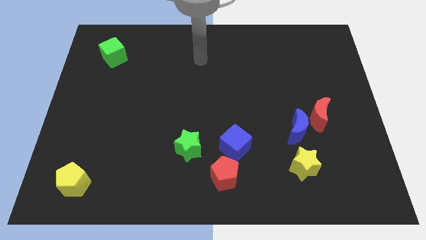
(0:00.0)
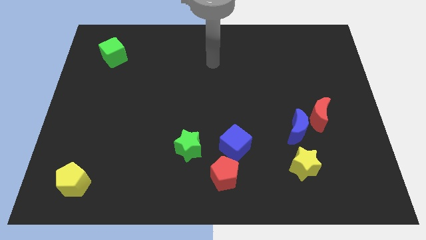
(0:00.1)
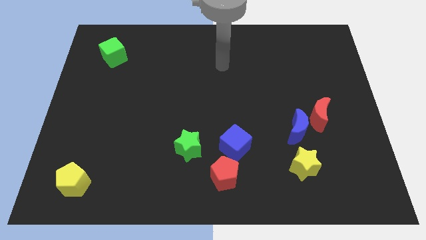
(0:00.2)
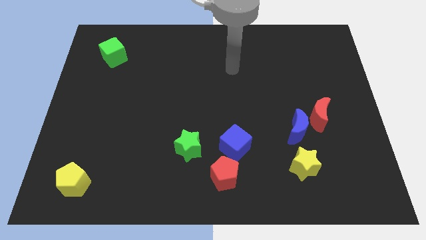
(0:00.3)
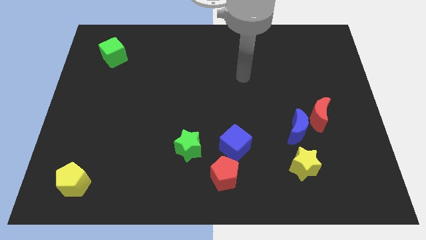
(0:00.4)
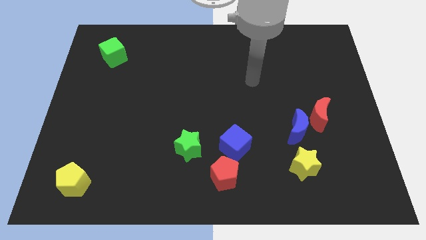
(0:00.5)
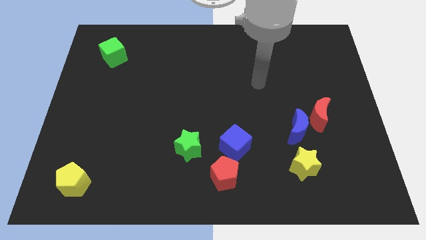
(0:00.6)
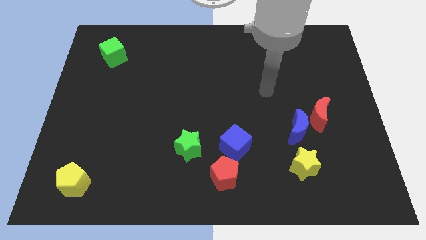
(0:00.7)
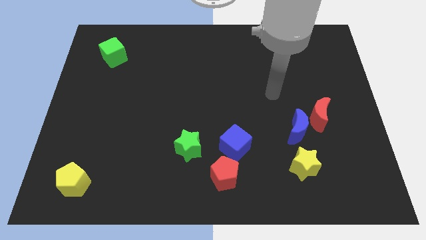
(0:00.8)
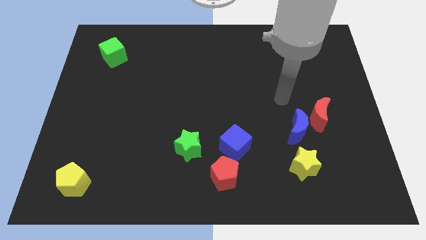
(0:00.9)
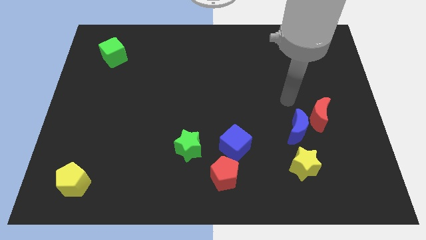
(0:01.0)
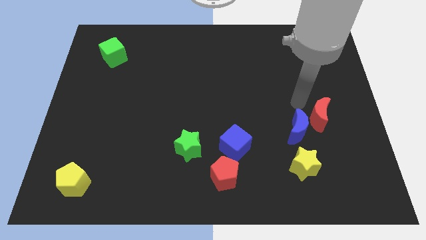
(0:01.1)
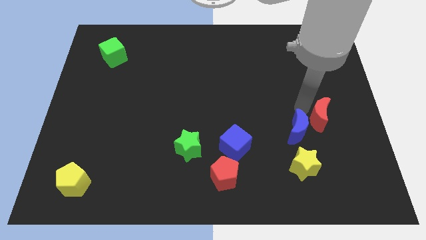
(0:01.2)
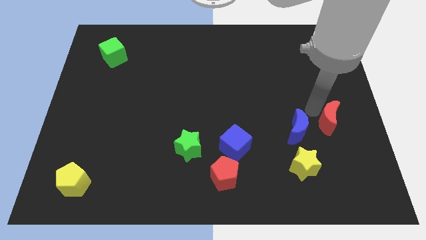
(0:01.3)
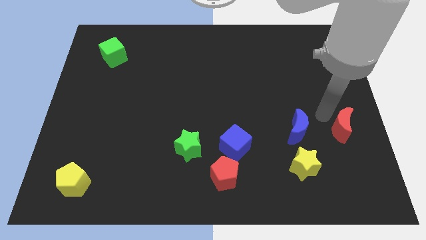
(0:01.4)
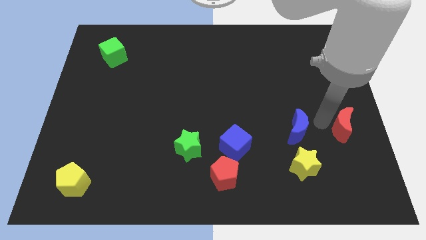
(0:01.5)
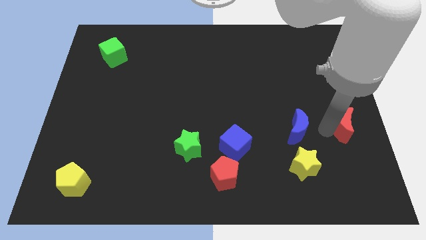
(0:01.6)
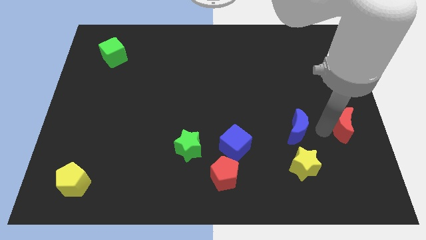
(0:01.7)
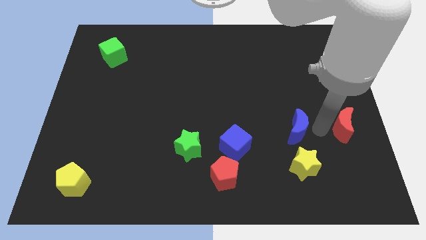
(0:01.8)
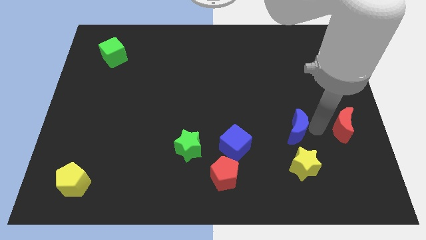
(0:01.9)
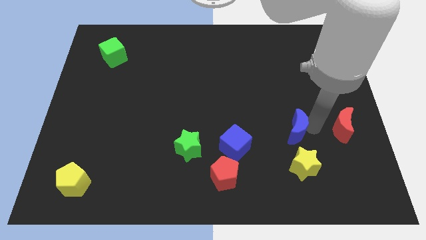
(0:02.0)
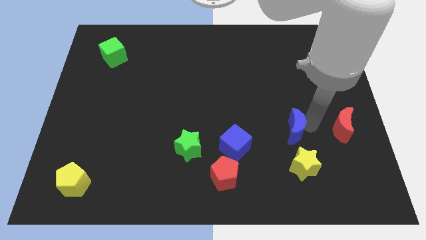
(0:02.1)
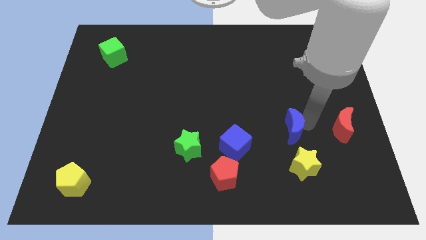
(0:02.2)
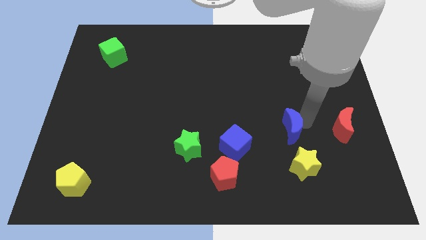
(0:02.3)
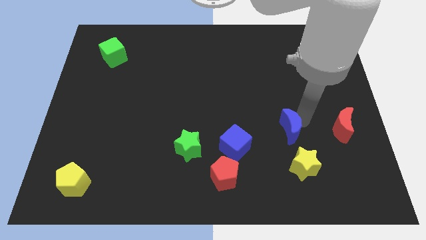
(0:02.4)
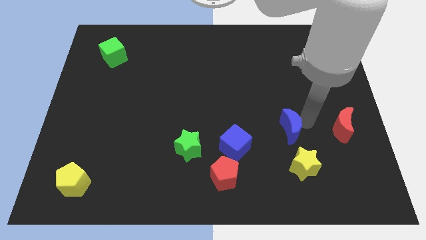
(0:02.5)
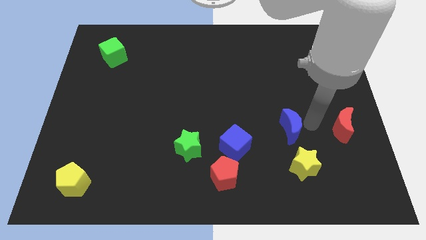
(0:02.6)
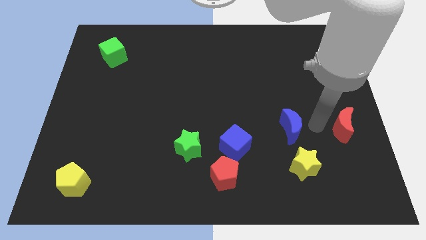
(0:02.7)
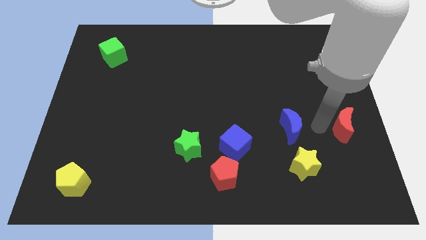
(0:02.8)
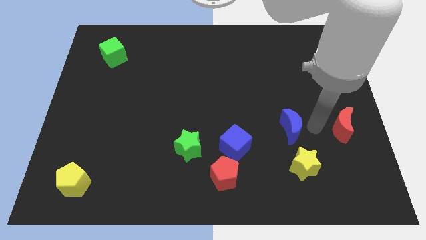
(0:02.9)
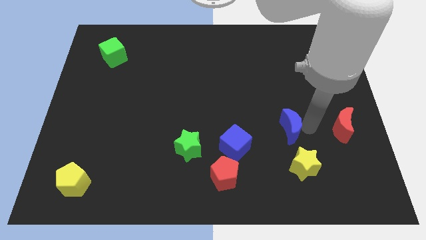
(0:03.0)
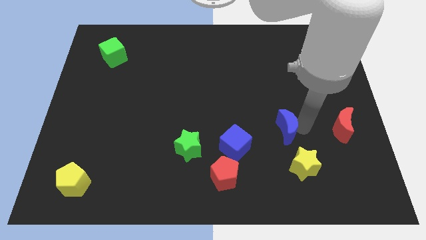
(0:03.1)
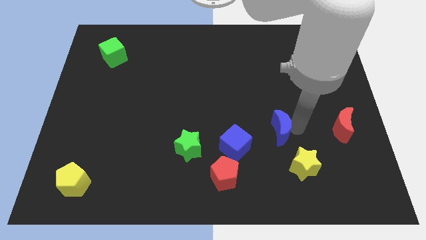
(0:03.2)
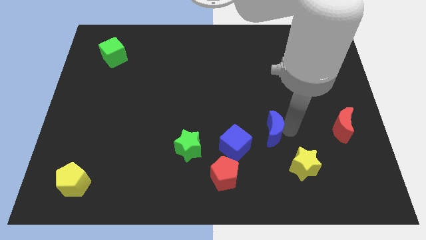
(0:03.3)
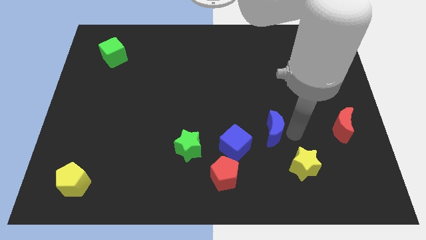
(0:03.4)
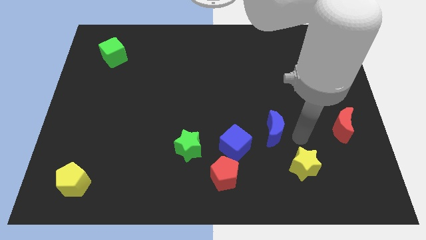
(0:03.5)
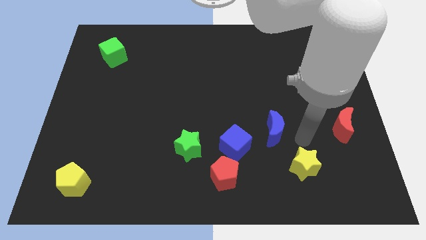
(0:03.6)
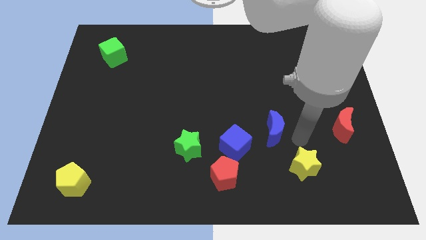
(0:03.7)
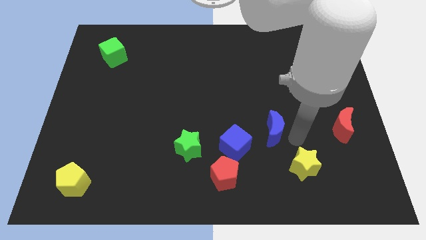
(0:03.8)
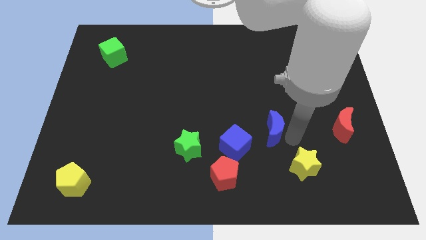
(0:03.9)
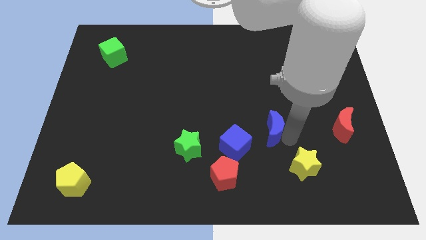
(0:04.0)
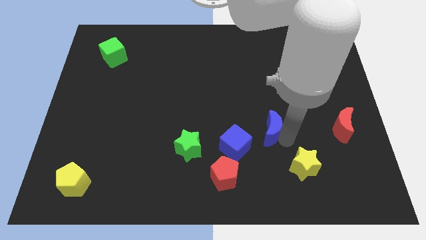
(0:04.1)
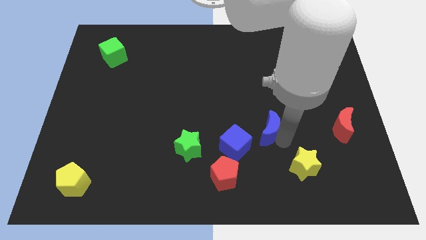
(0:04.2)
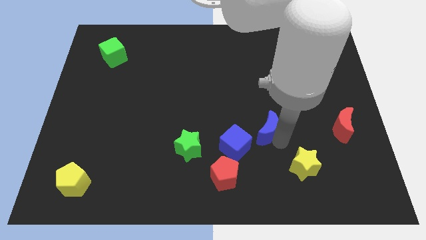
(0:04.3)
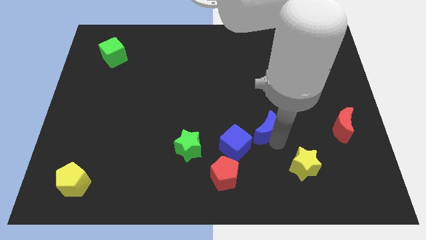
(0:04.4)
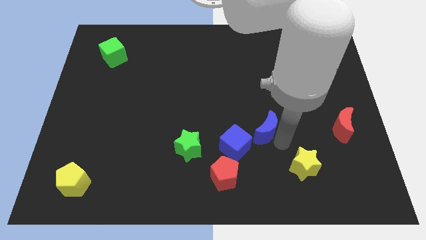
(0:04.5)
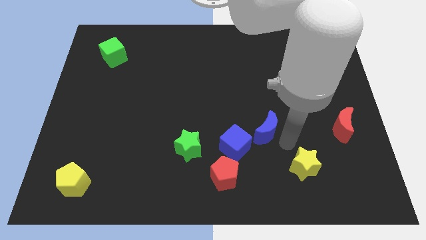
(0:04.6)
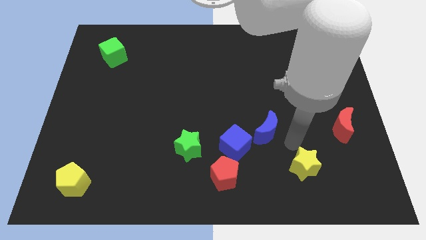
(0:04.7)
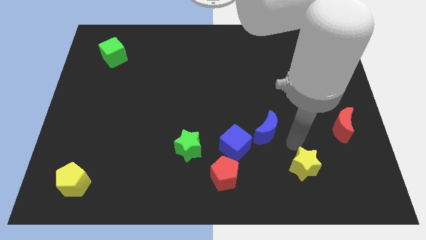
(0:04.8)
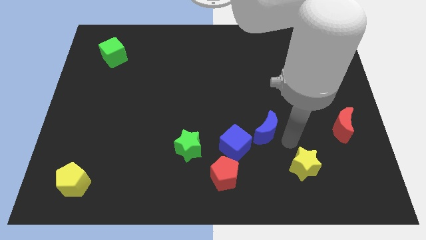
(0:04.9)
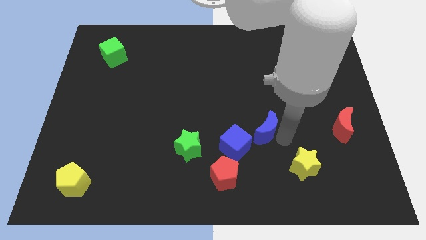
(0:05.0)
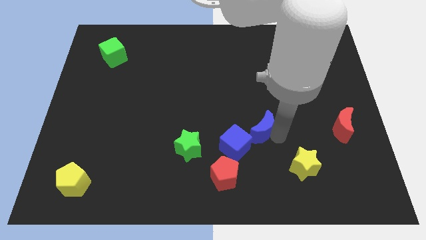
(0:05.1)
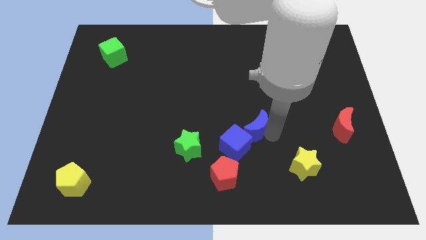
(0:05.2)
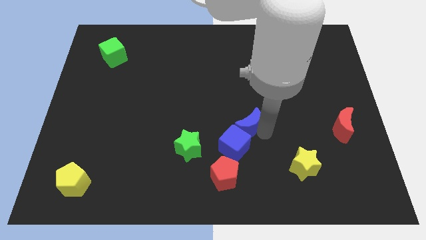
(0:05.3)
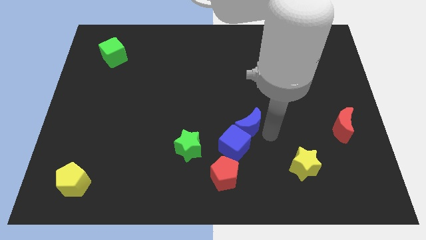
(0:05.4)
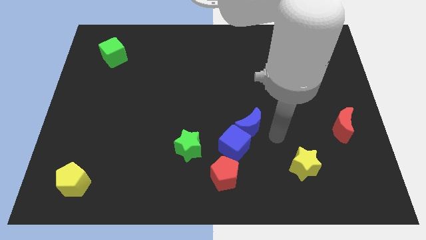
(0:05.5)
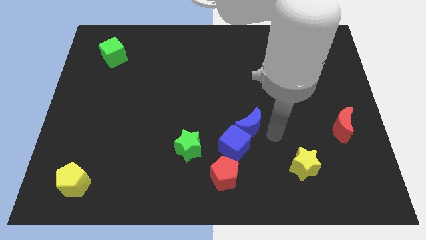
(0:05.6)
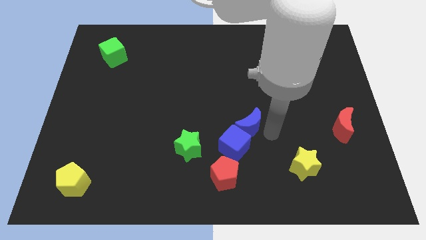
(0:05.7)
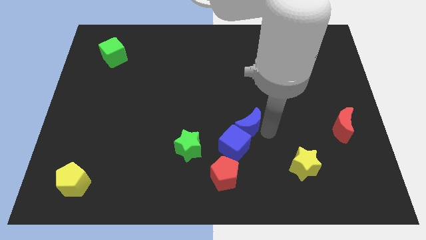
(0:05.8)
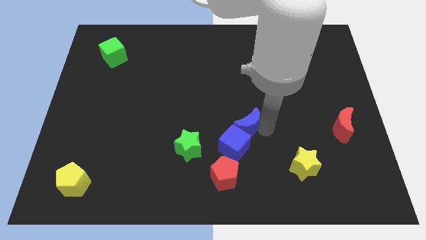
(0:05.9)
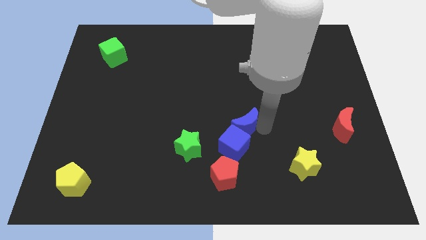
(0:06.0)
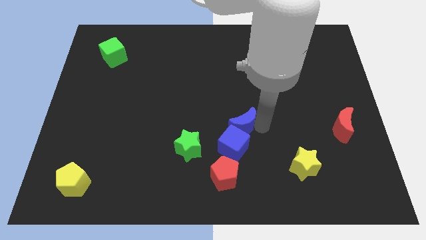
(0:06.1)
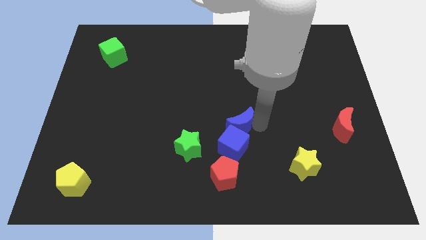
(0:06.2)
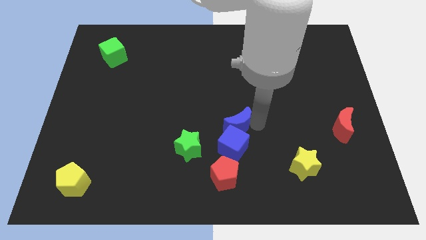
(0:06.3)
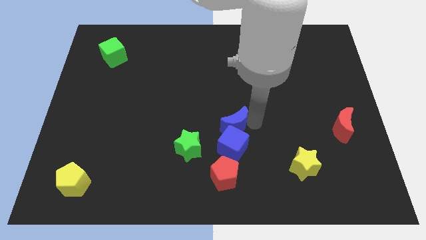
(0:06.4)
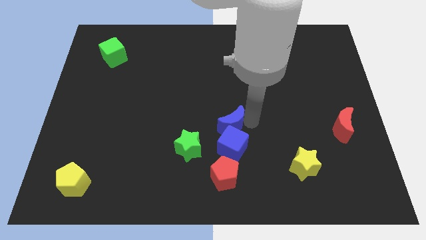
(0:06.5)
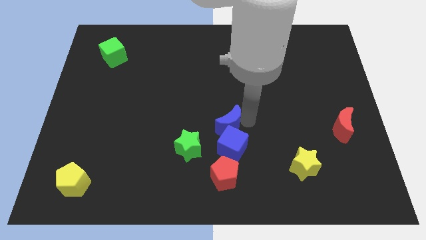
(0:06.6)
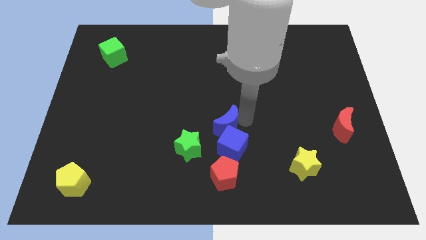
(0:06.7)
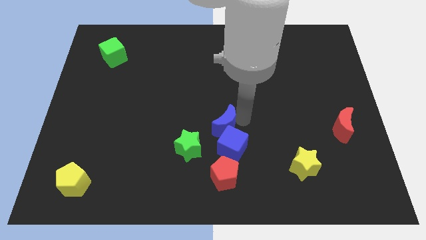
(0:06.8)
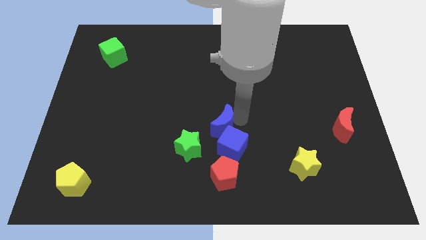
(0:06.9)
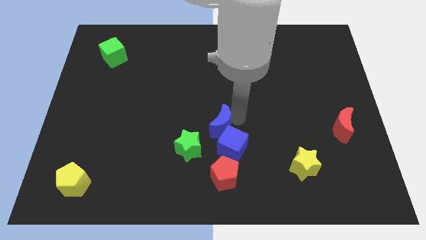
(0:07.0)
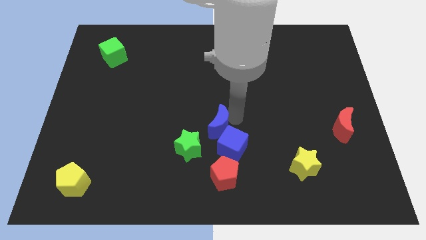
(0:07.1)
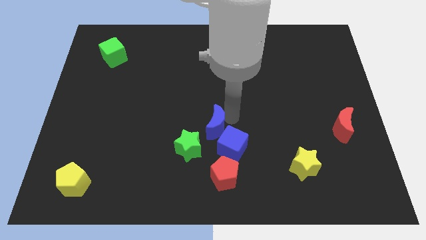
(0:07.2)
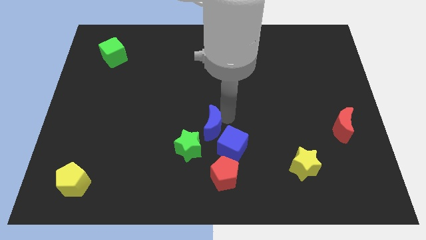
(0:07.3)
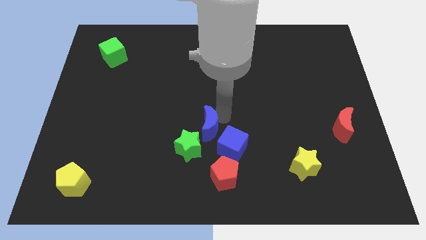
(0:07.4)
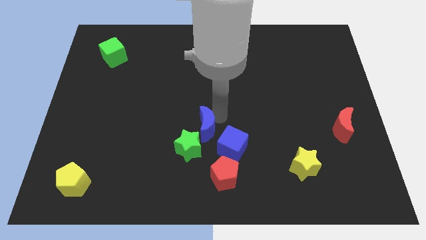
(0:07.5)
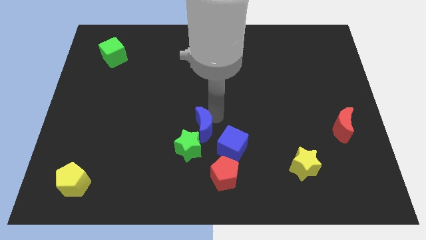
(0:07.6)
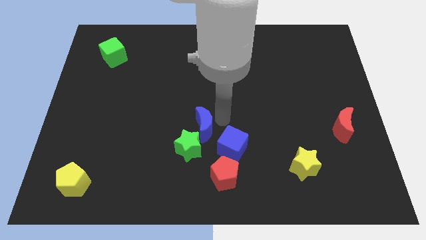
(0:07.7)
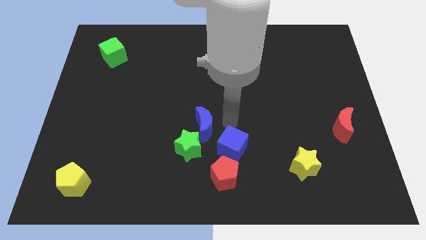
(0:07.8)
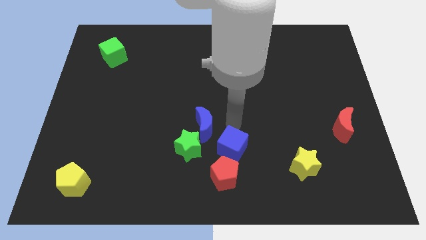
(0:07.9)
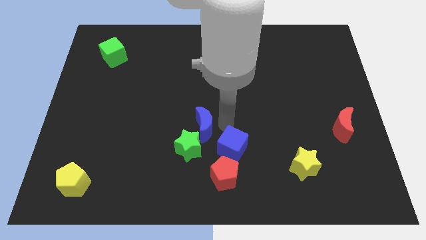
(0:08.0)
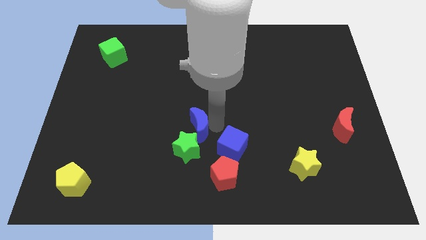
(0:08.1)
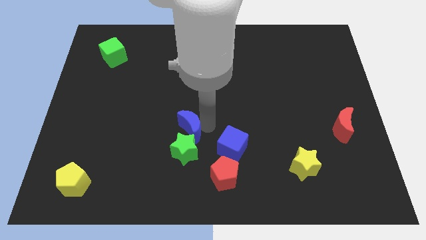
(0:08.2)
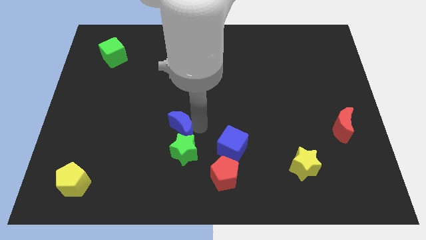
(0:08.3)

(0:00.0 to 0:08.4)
push the blue moon to the top left of the green star
